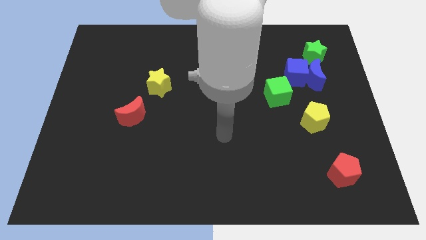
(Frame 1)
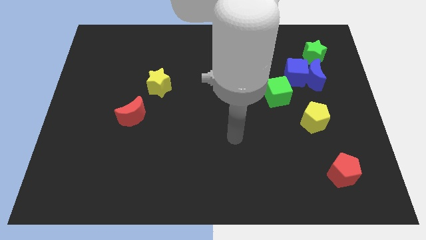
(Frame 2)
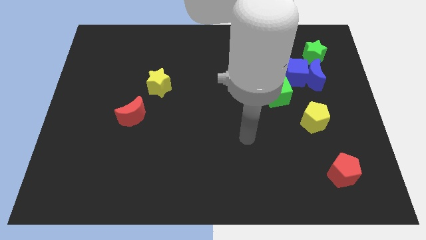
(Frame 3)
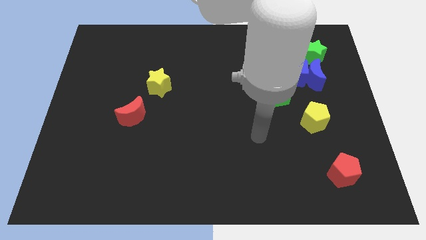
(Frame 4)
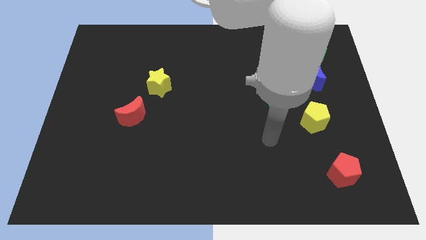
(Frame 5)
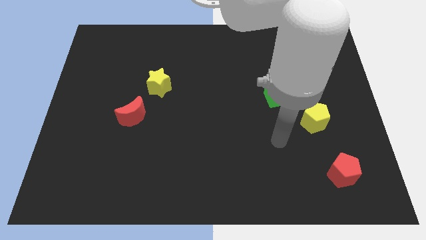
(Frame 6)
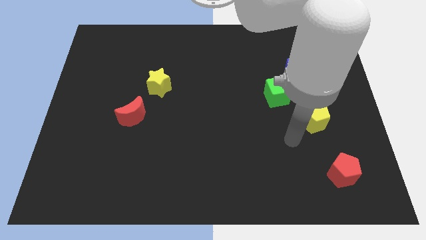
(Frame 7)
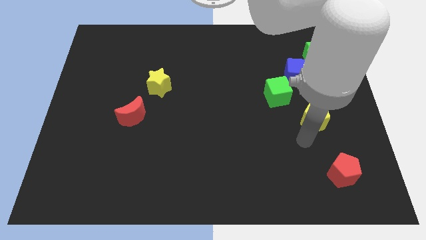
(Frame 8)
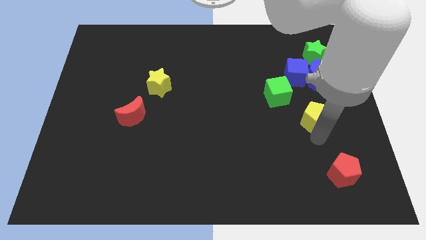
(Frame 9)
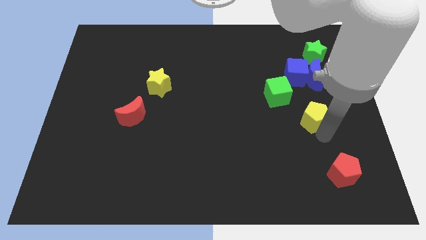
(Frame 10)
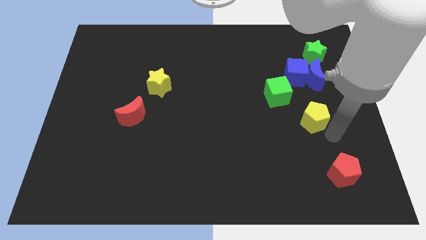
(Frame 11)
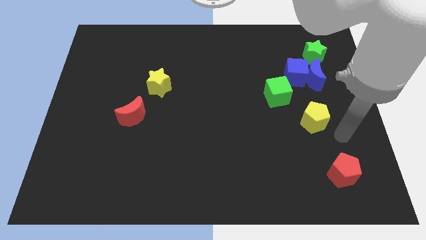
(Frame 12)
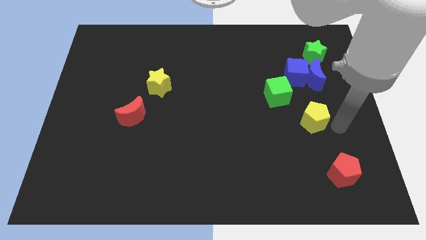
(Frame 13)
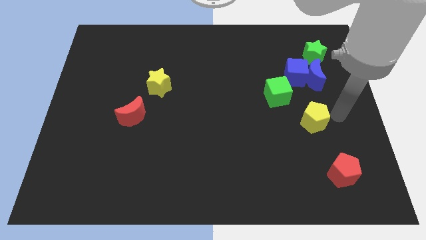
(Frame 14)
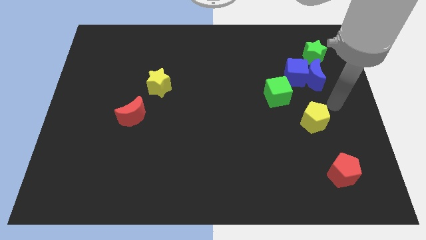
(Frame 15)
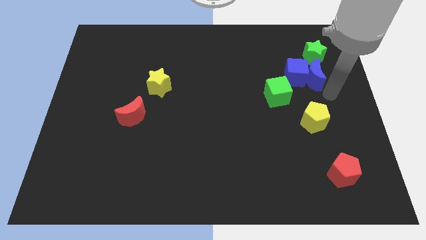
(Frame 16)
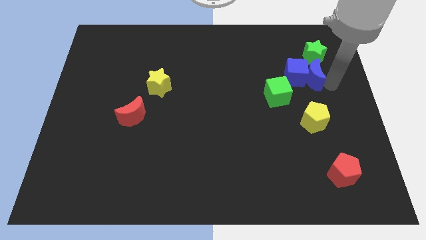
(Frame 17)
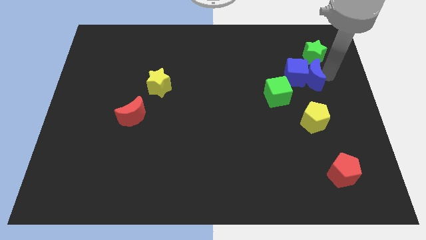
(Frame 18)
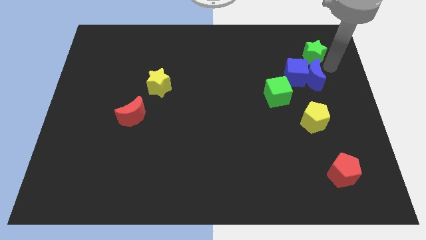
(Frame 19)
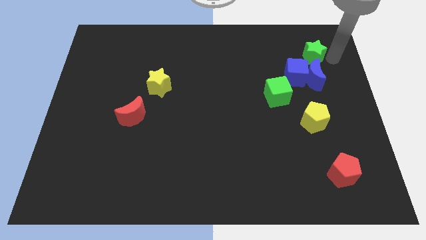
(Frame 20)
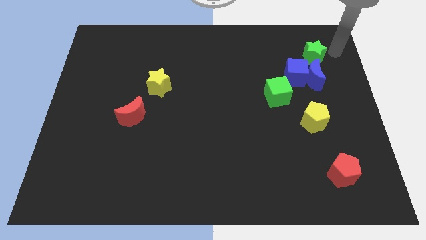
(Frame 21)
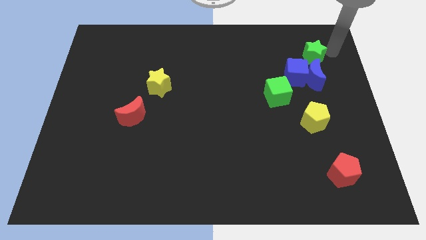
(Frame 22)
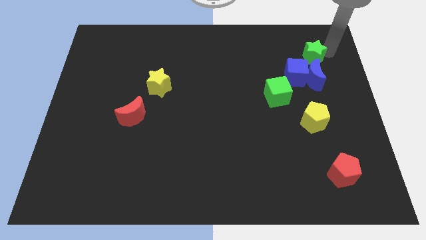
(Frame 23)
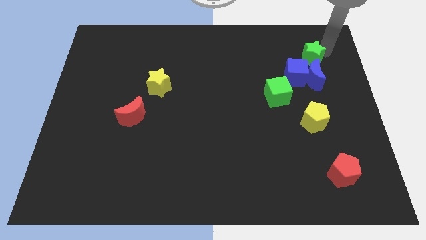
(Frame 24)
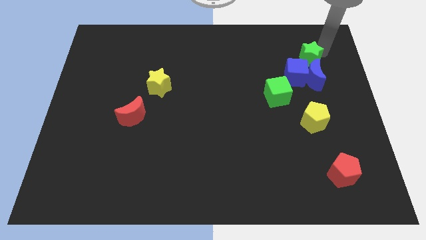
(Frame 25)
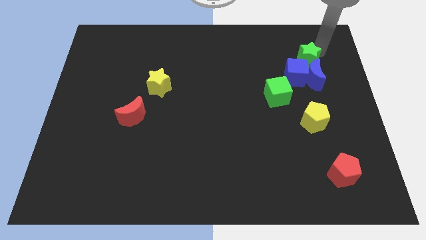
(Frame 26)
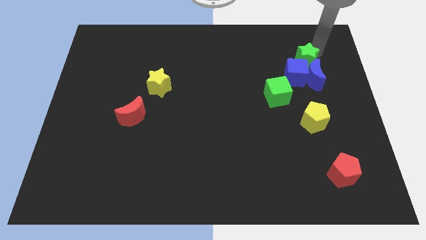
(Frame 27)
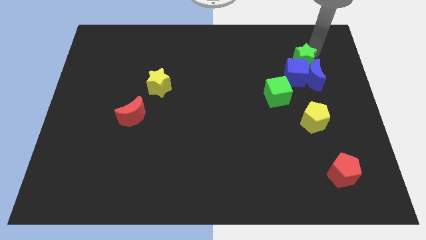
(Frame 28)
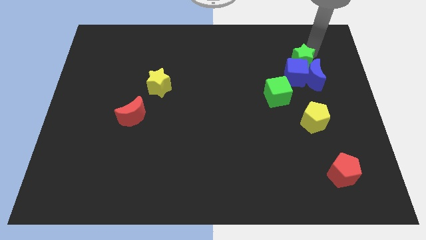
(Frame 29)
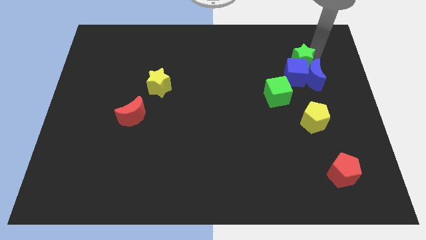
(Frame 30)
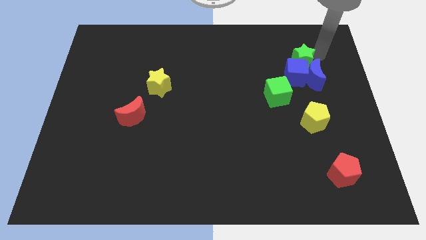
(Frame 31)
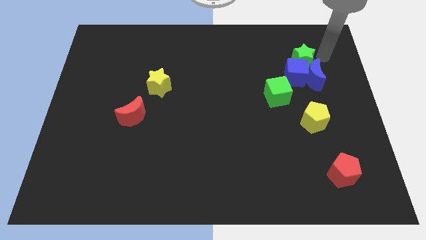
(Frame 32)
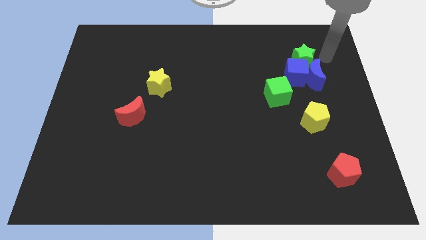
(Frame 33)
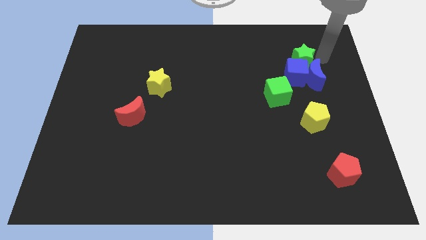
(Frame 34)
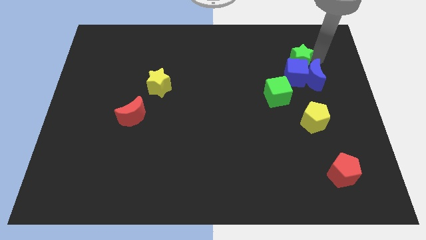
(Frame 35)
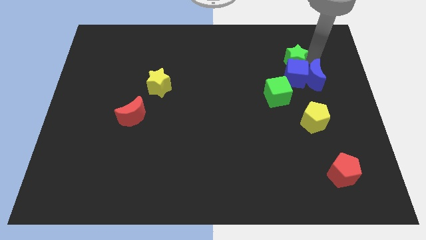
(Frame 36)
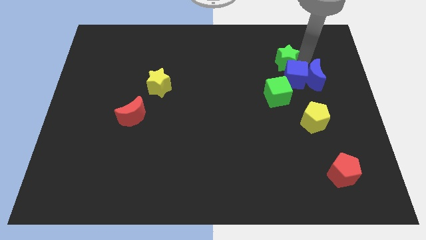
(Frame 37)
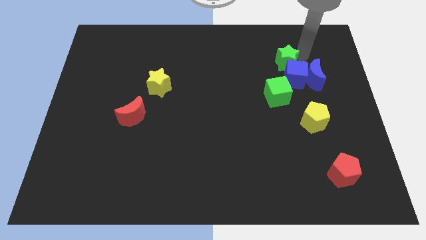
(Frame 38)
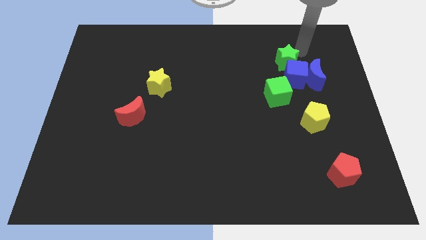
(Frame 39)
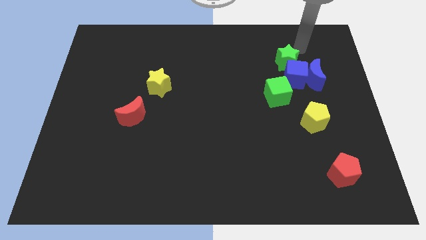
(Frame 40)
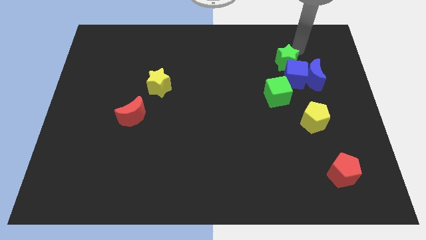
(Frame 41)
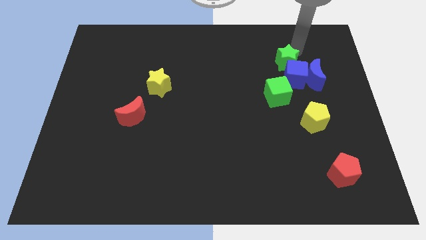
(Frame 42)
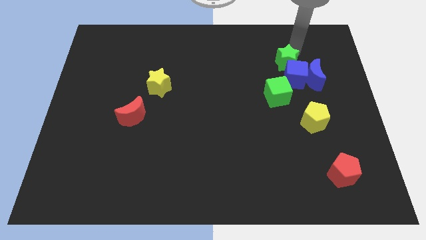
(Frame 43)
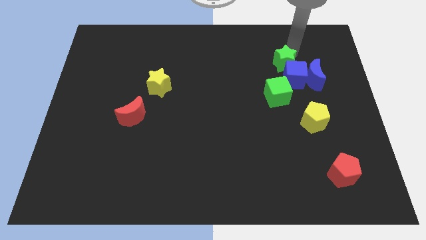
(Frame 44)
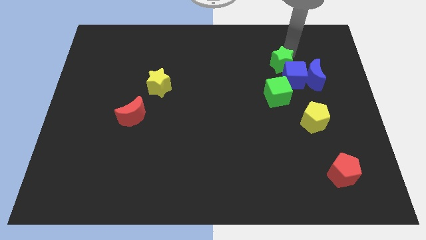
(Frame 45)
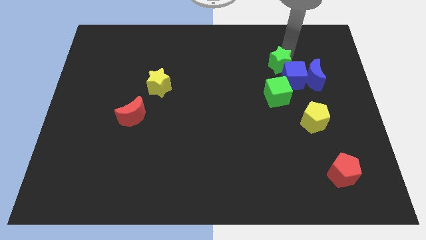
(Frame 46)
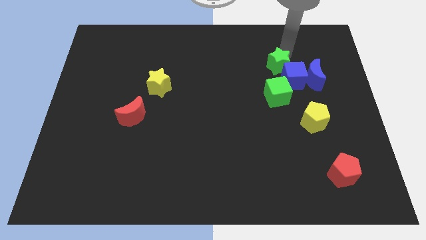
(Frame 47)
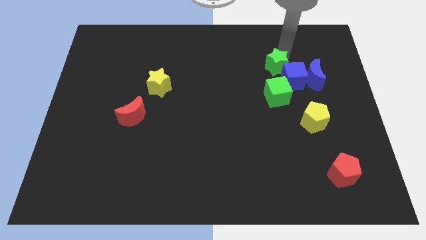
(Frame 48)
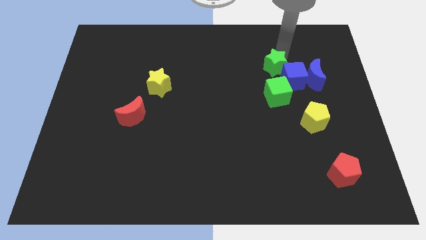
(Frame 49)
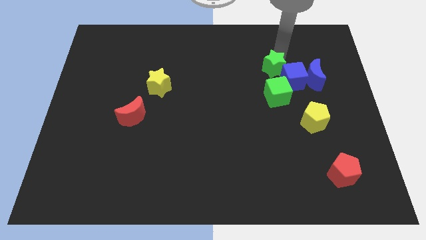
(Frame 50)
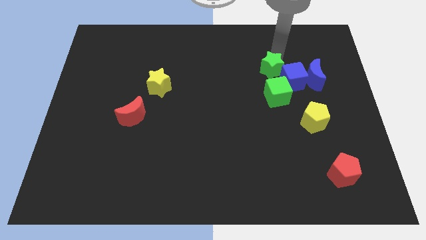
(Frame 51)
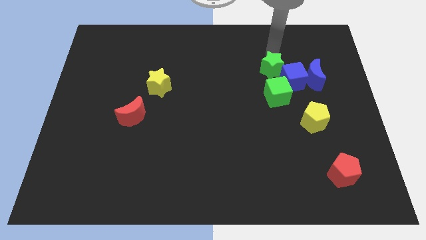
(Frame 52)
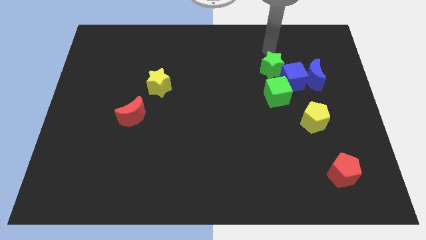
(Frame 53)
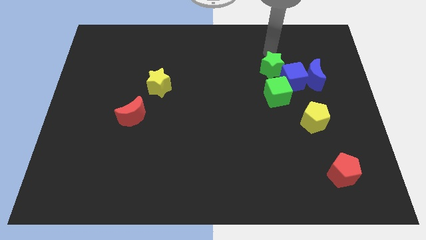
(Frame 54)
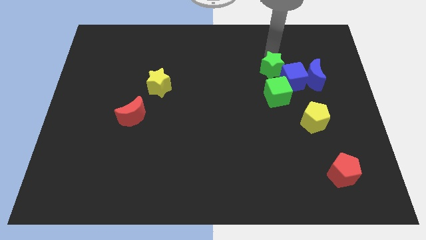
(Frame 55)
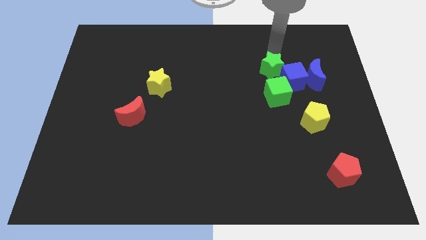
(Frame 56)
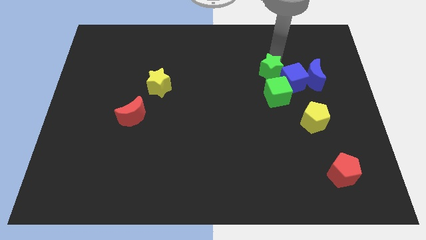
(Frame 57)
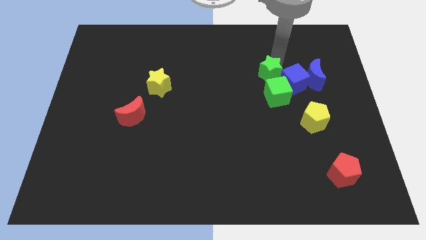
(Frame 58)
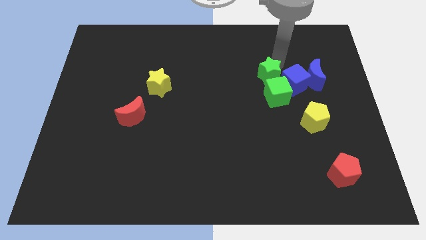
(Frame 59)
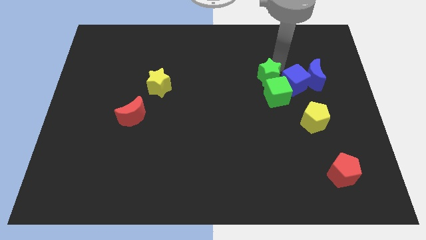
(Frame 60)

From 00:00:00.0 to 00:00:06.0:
slide the green star close to the green cube

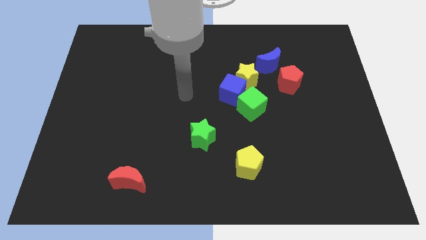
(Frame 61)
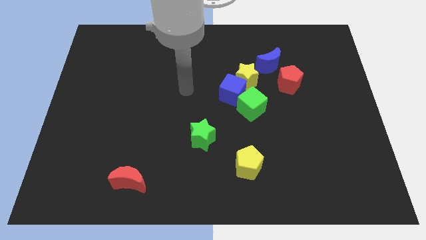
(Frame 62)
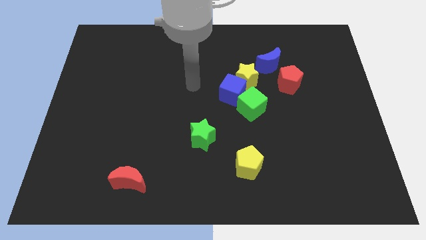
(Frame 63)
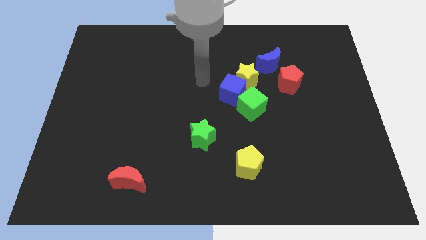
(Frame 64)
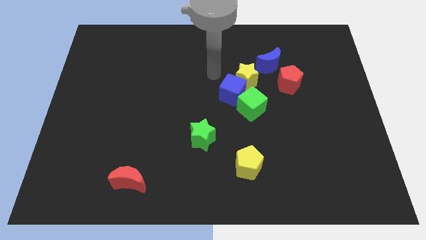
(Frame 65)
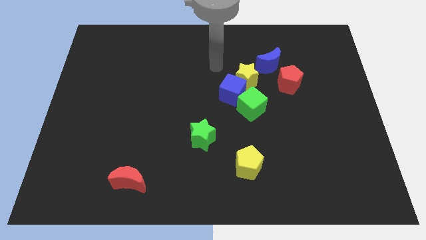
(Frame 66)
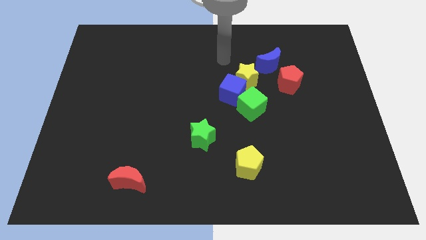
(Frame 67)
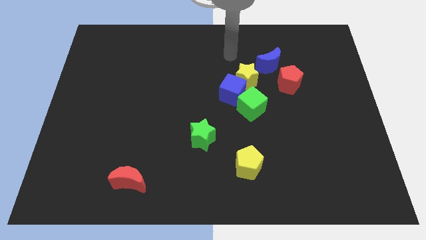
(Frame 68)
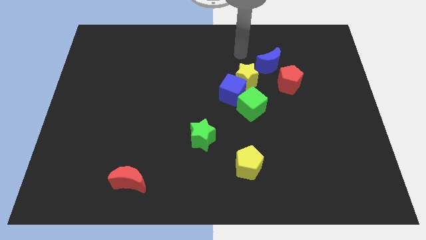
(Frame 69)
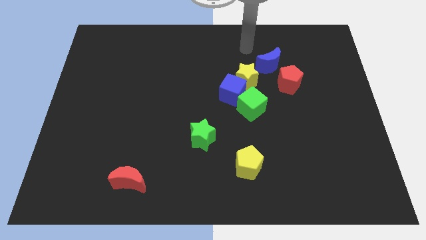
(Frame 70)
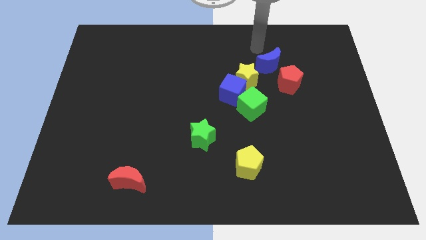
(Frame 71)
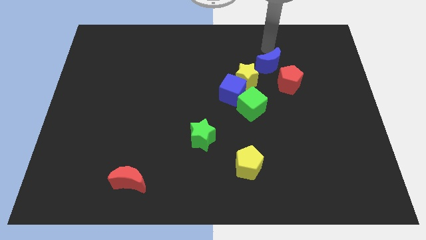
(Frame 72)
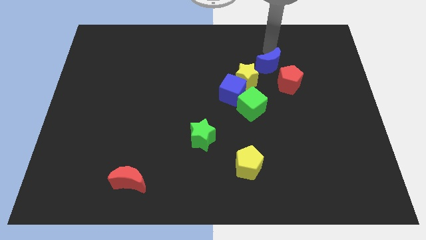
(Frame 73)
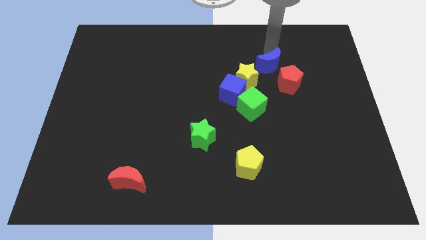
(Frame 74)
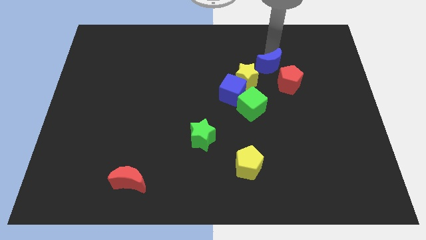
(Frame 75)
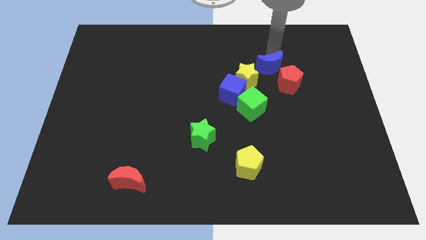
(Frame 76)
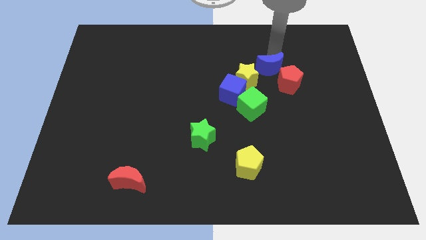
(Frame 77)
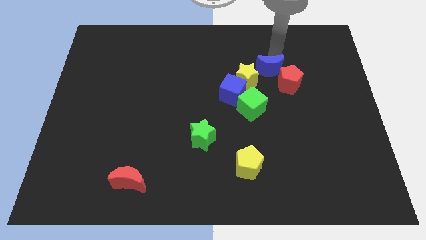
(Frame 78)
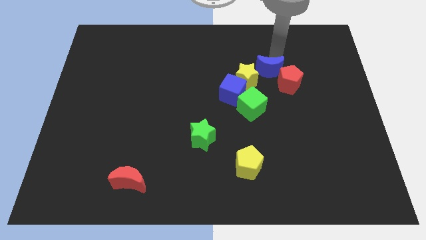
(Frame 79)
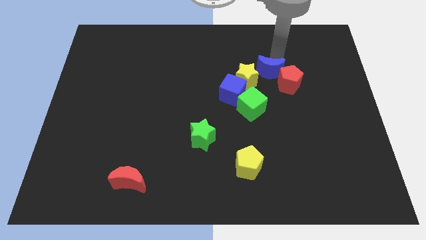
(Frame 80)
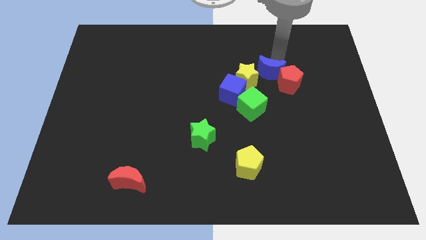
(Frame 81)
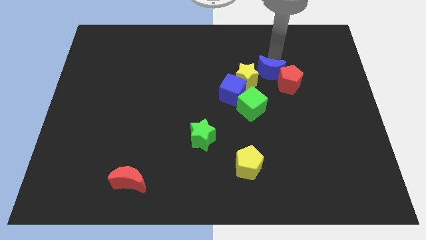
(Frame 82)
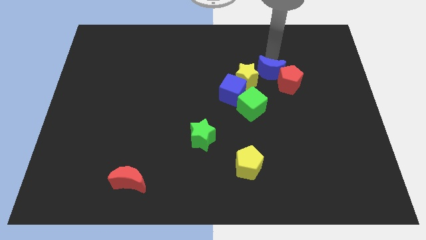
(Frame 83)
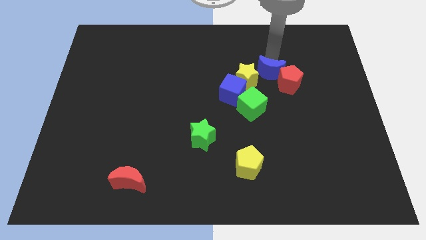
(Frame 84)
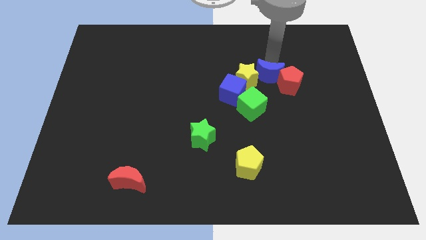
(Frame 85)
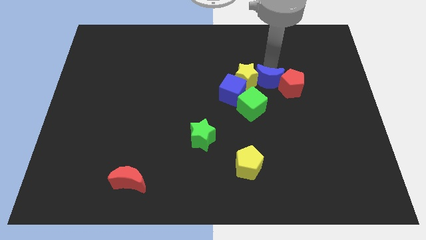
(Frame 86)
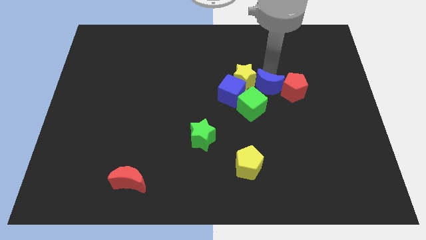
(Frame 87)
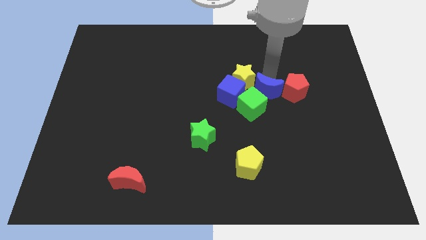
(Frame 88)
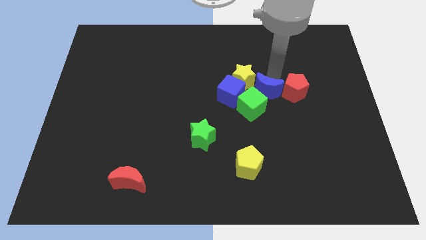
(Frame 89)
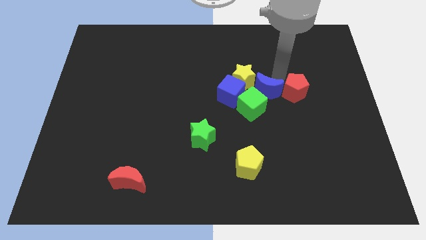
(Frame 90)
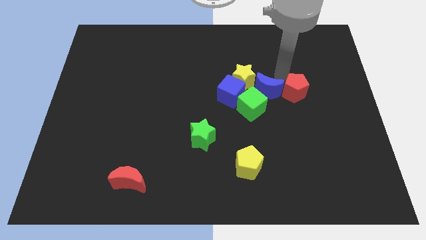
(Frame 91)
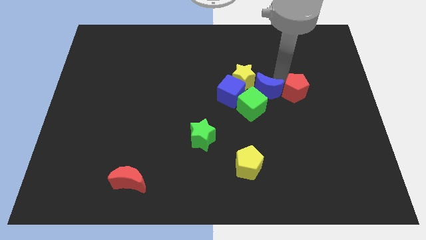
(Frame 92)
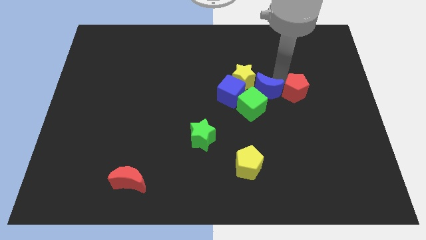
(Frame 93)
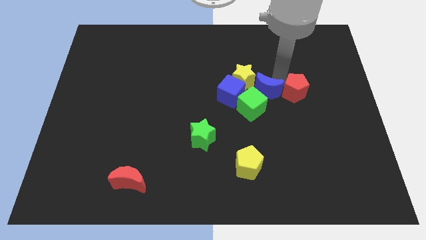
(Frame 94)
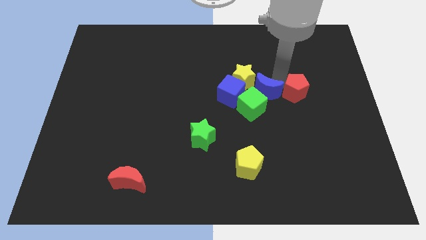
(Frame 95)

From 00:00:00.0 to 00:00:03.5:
push the blue moon close to the green cube
